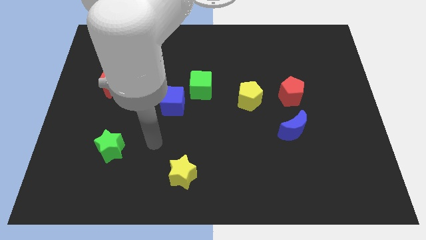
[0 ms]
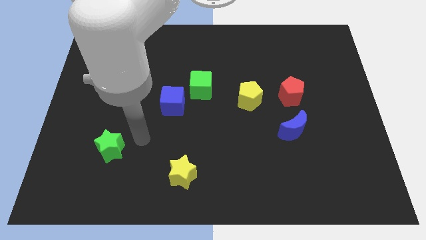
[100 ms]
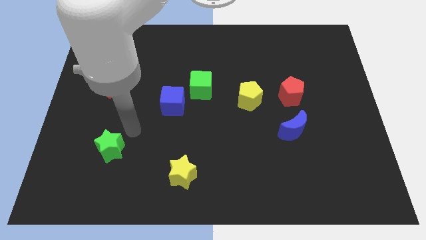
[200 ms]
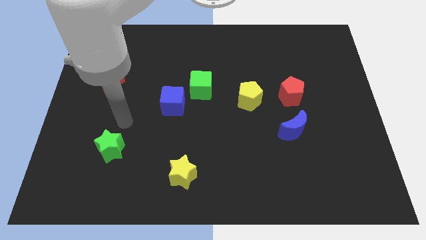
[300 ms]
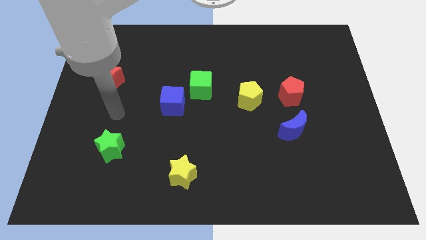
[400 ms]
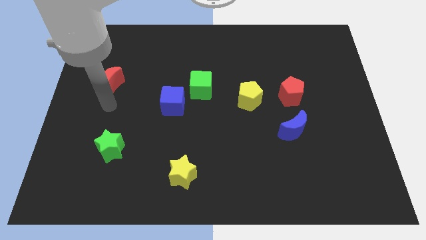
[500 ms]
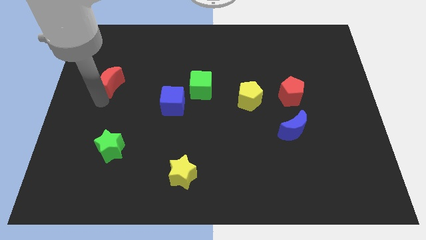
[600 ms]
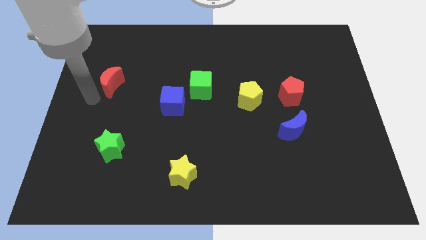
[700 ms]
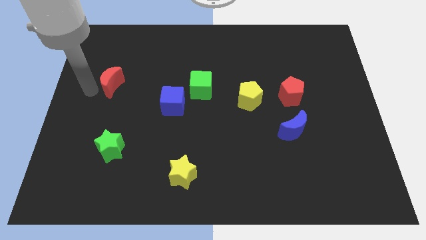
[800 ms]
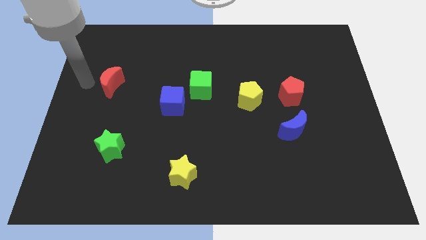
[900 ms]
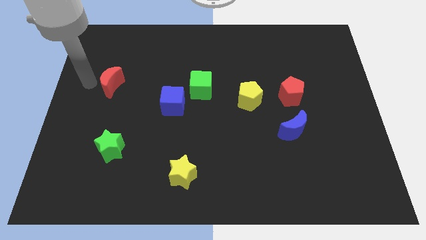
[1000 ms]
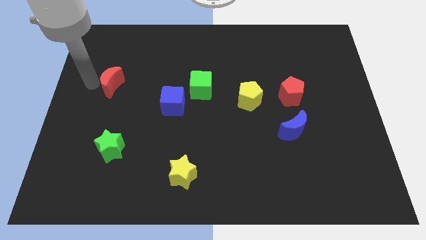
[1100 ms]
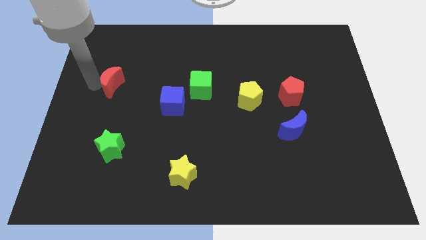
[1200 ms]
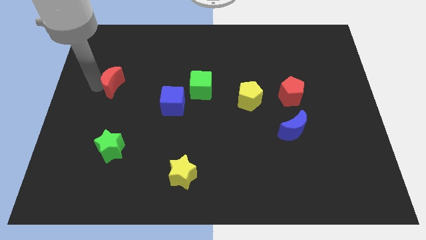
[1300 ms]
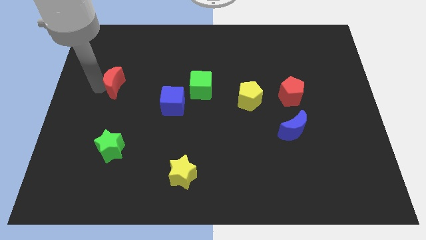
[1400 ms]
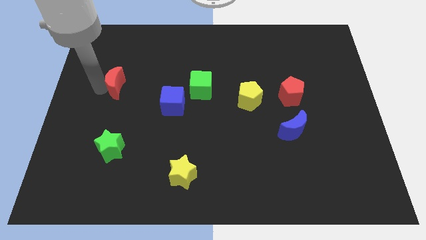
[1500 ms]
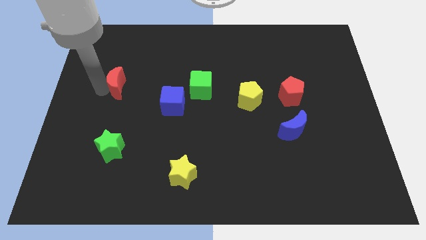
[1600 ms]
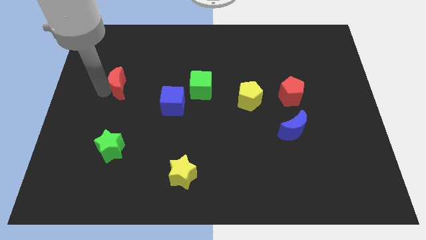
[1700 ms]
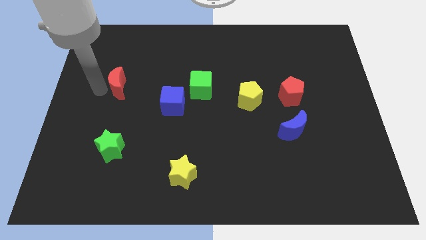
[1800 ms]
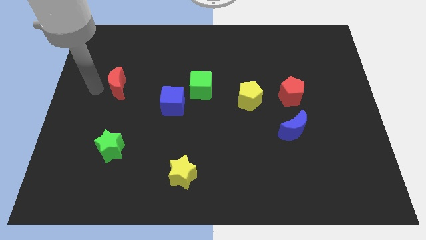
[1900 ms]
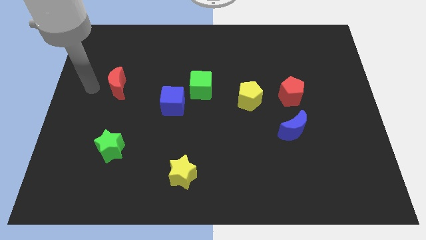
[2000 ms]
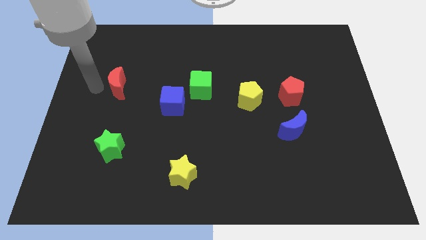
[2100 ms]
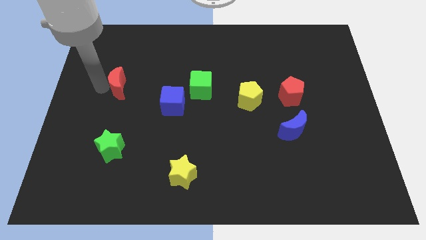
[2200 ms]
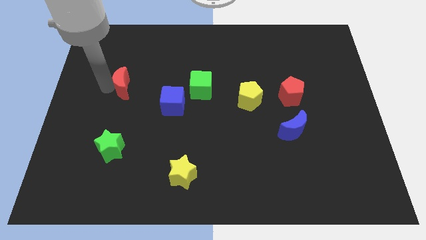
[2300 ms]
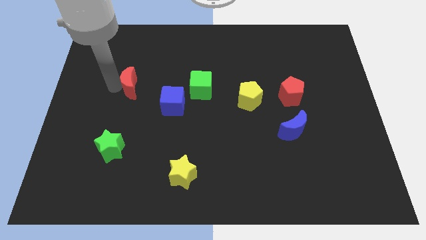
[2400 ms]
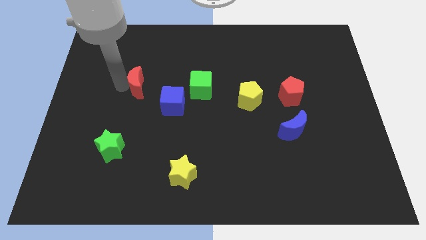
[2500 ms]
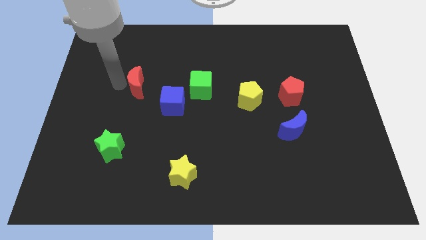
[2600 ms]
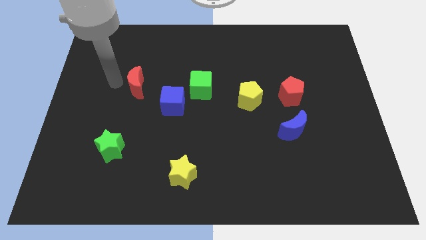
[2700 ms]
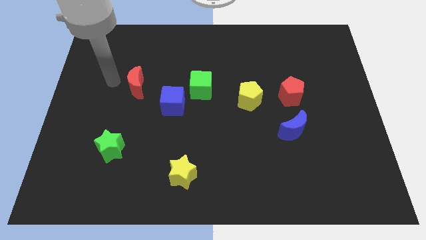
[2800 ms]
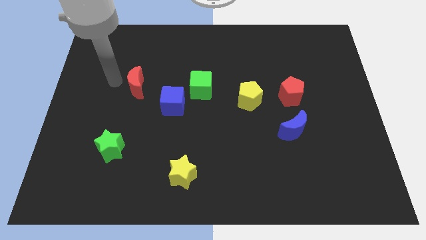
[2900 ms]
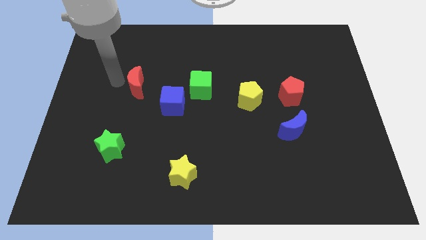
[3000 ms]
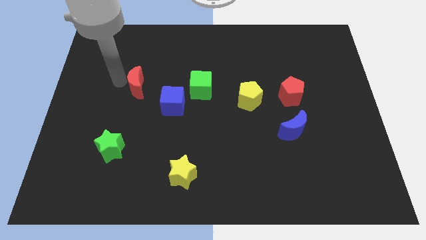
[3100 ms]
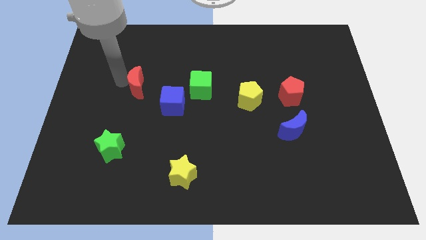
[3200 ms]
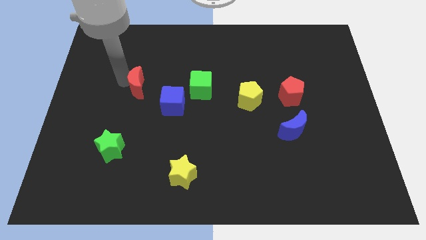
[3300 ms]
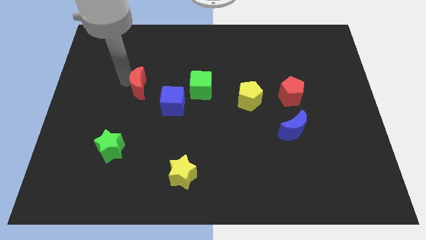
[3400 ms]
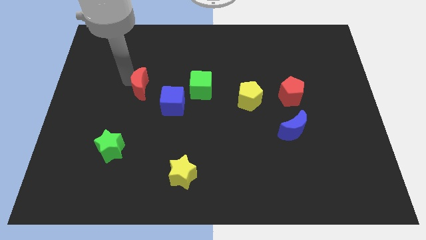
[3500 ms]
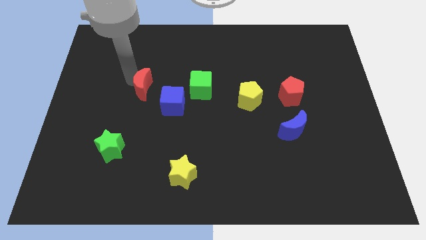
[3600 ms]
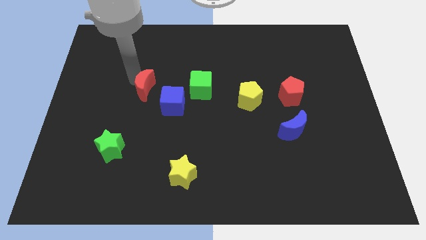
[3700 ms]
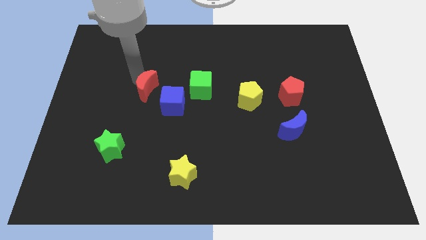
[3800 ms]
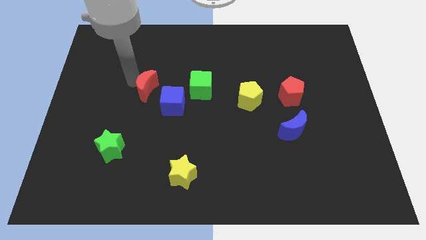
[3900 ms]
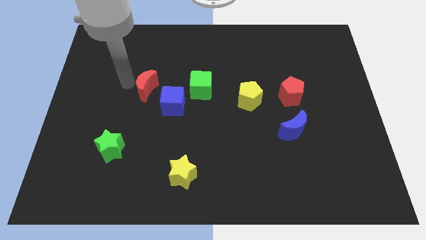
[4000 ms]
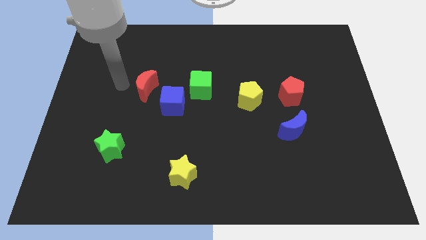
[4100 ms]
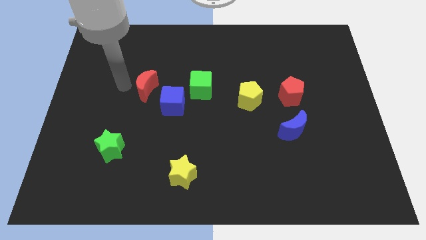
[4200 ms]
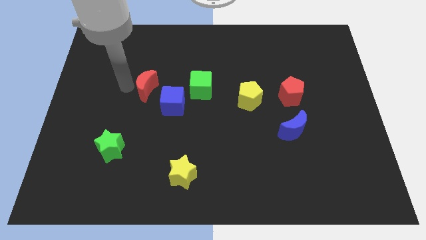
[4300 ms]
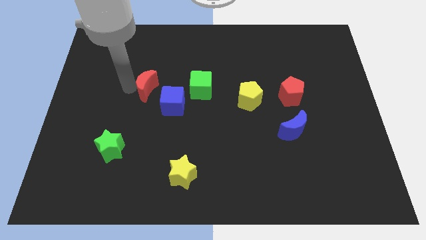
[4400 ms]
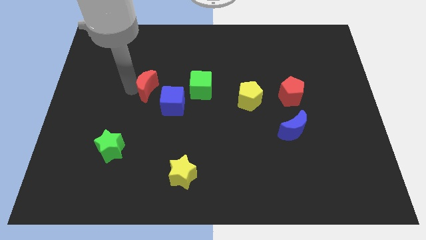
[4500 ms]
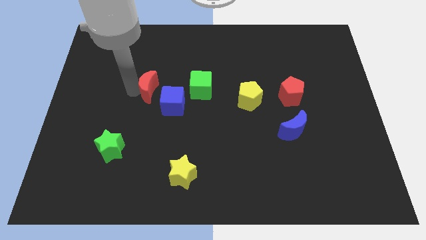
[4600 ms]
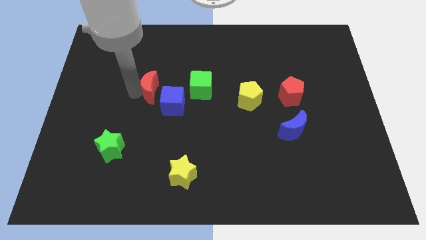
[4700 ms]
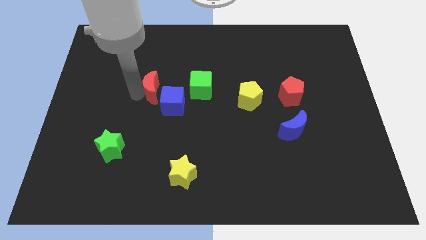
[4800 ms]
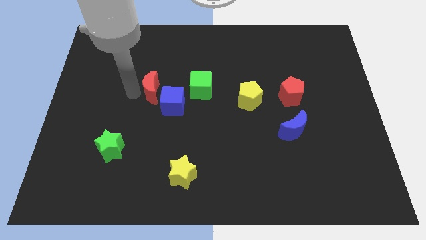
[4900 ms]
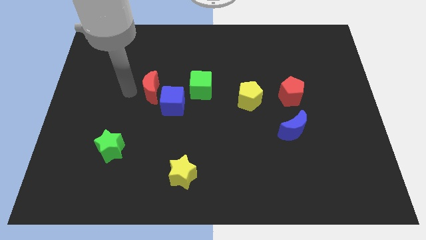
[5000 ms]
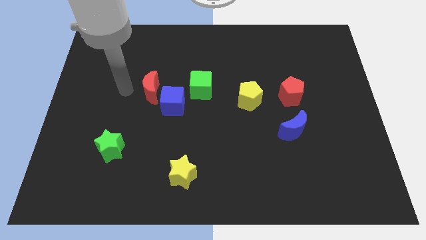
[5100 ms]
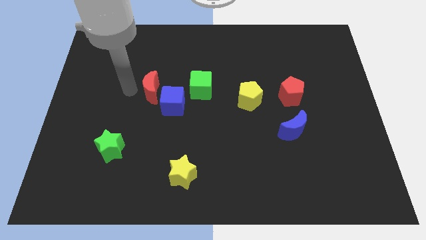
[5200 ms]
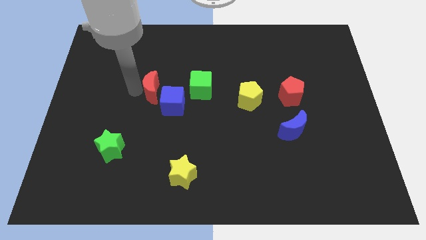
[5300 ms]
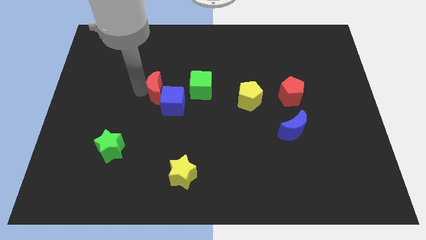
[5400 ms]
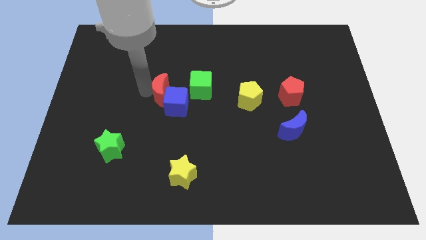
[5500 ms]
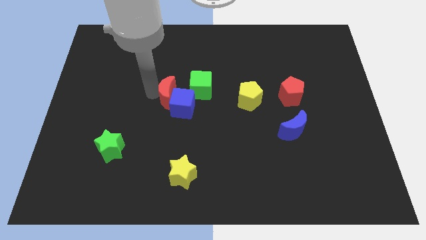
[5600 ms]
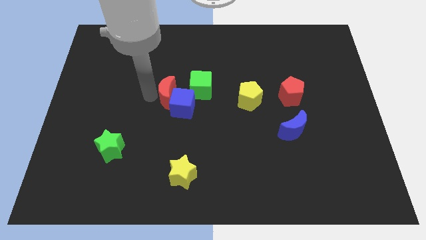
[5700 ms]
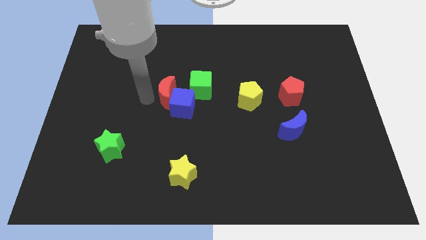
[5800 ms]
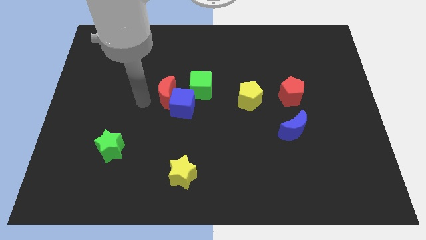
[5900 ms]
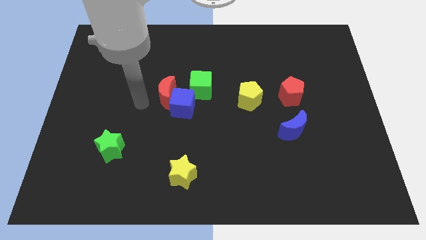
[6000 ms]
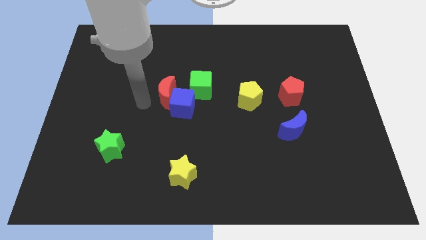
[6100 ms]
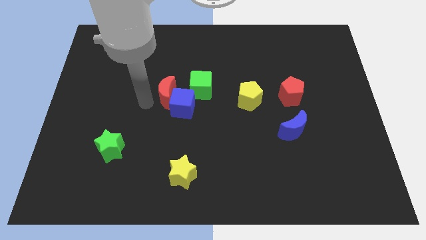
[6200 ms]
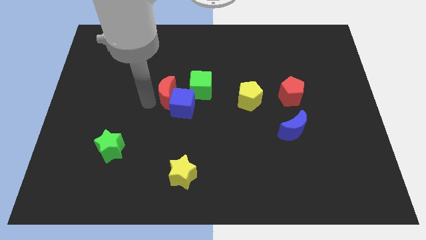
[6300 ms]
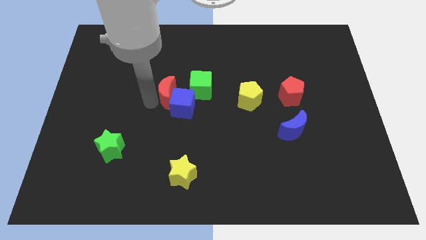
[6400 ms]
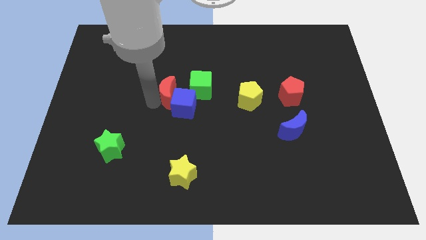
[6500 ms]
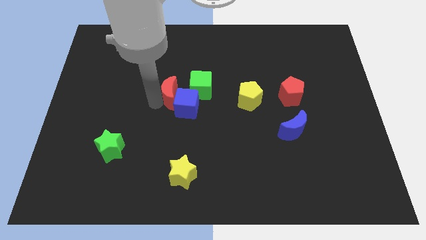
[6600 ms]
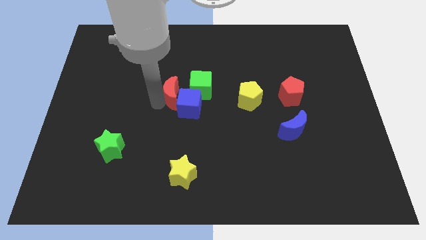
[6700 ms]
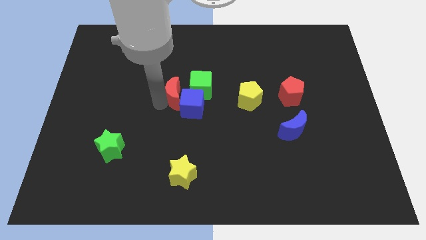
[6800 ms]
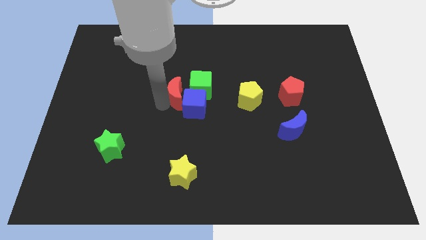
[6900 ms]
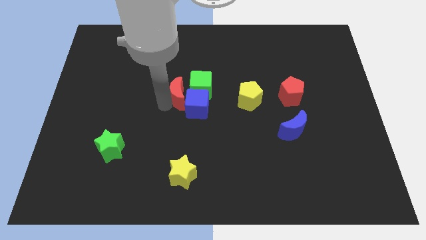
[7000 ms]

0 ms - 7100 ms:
slide the red moon to the green cube
